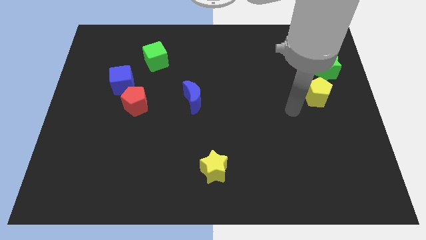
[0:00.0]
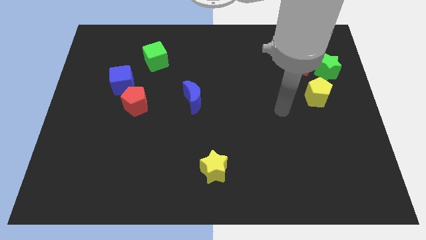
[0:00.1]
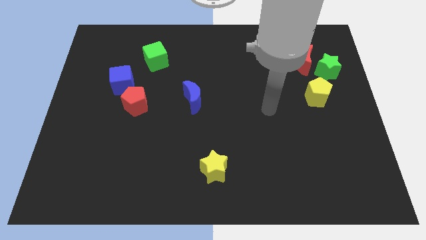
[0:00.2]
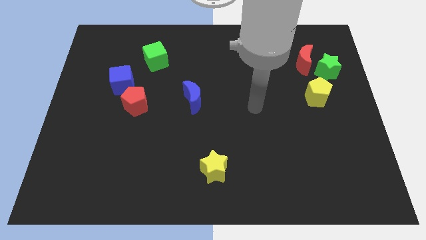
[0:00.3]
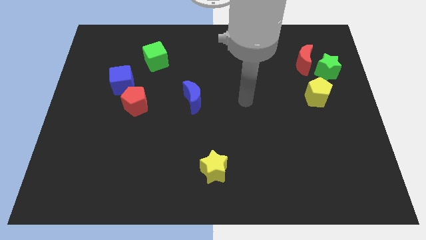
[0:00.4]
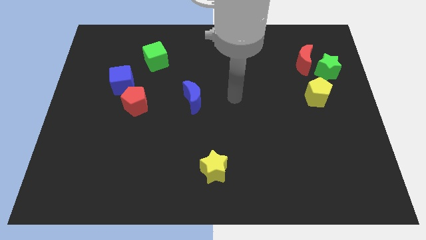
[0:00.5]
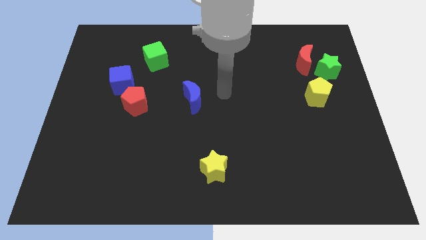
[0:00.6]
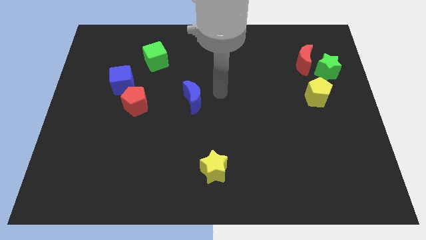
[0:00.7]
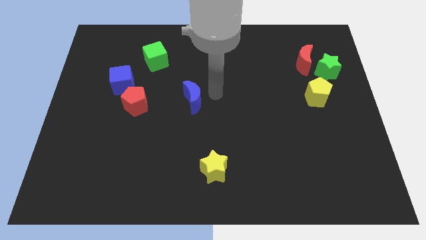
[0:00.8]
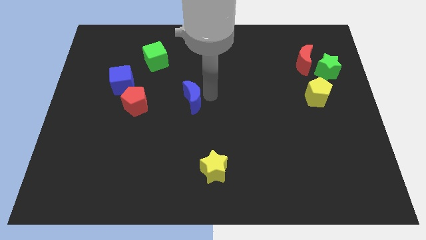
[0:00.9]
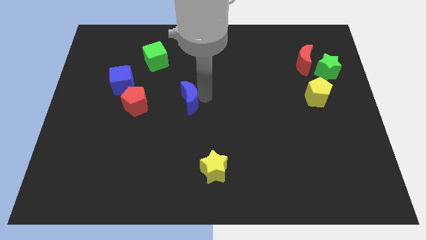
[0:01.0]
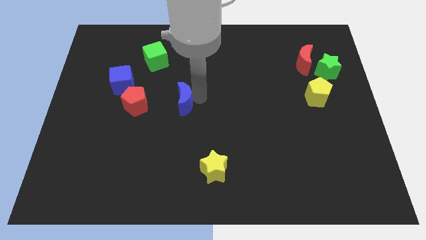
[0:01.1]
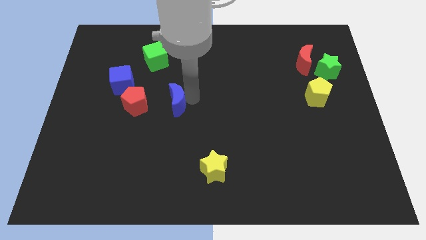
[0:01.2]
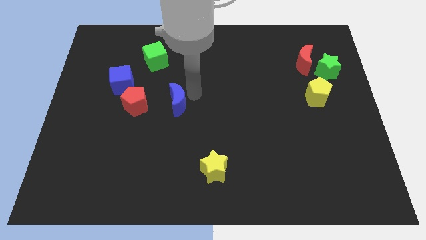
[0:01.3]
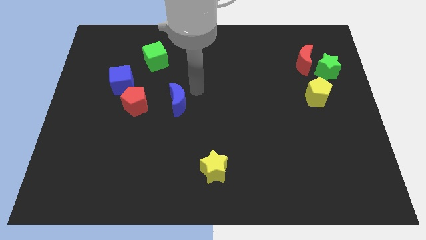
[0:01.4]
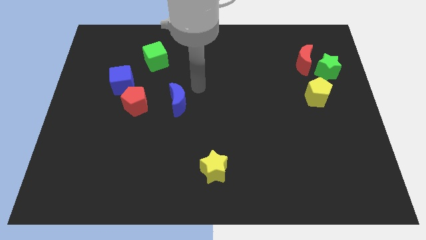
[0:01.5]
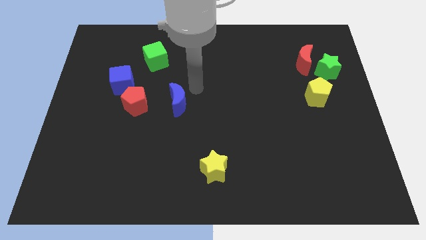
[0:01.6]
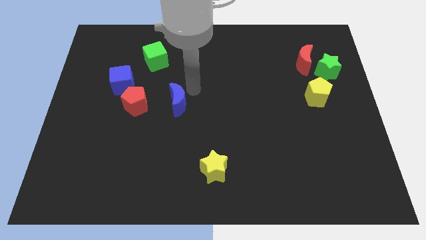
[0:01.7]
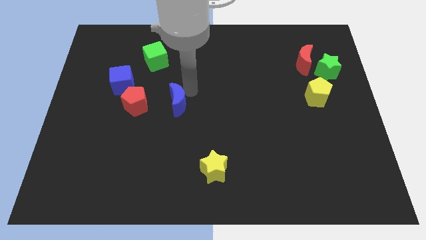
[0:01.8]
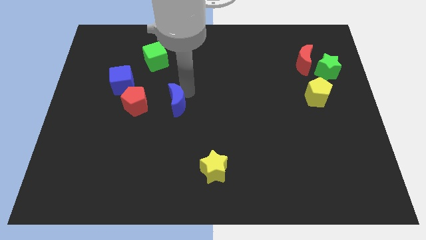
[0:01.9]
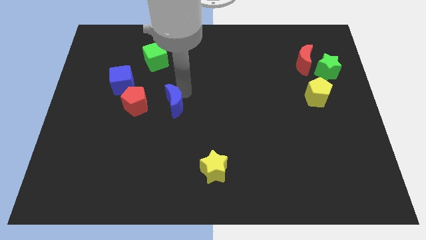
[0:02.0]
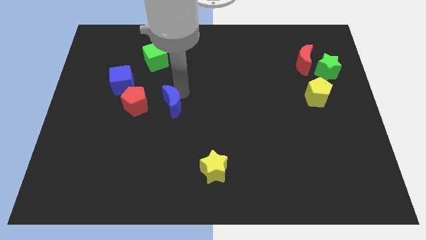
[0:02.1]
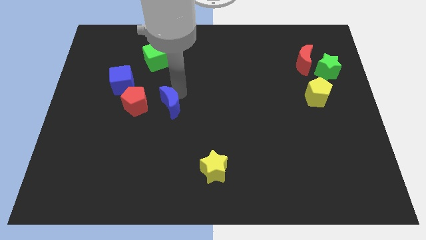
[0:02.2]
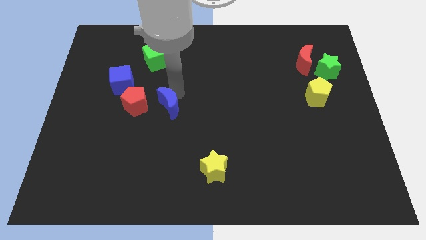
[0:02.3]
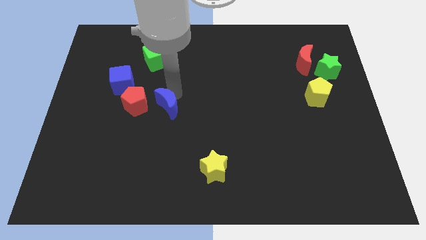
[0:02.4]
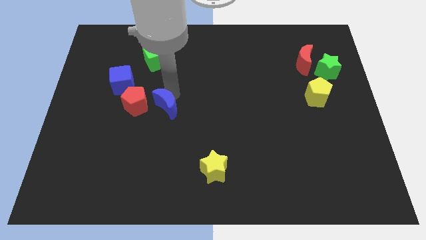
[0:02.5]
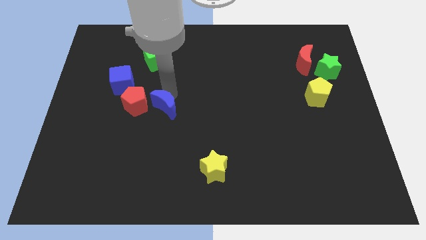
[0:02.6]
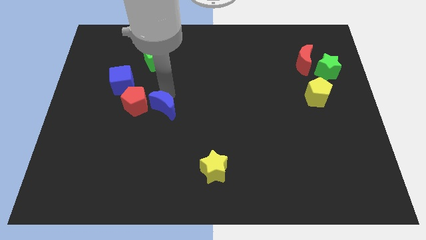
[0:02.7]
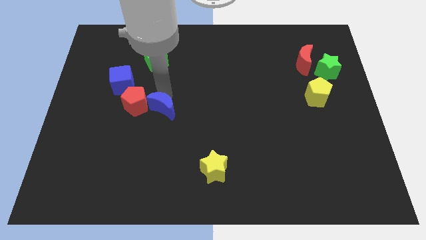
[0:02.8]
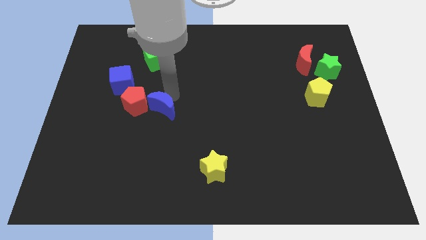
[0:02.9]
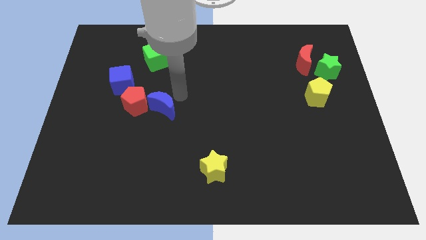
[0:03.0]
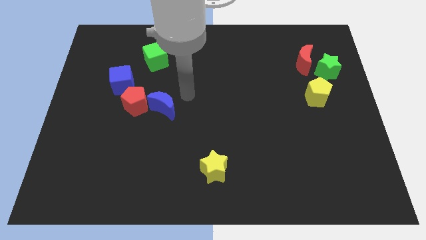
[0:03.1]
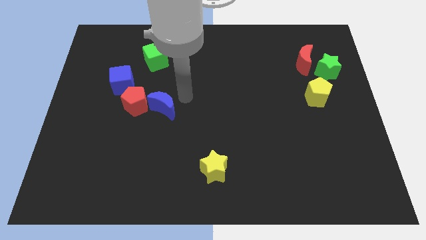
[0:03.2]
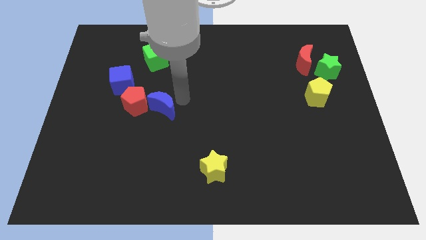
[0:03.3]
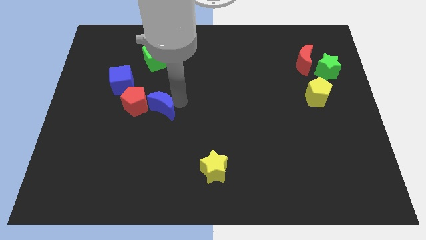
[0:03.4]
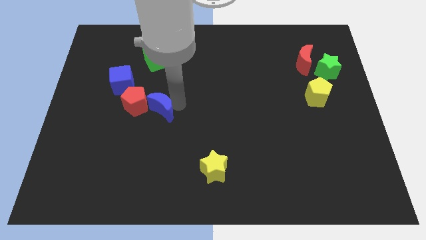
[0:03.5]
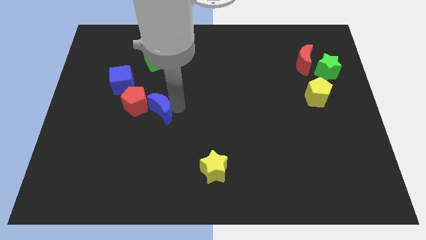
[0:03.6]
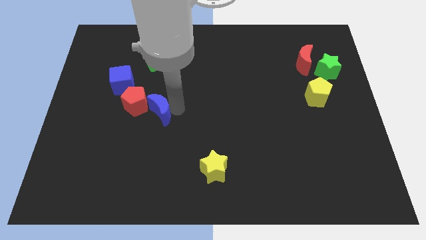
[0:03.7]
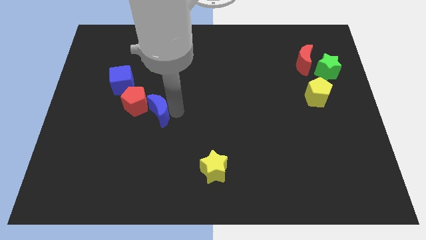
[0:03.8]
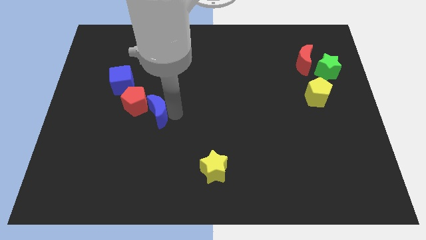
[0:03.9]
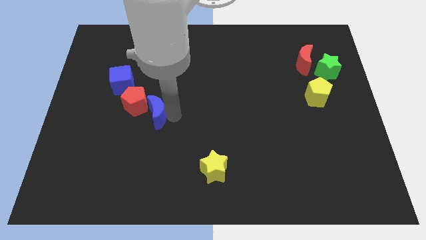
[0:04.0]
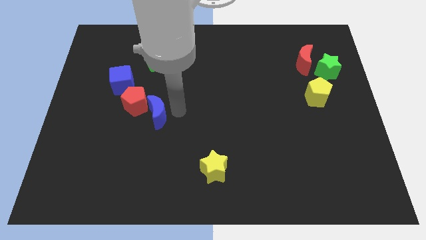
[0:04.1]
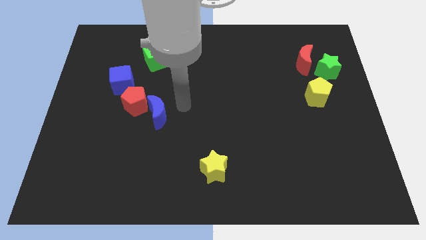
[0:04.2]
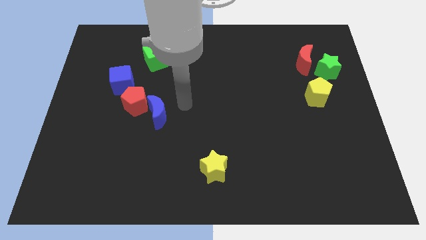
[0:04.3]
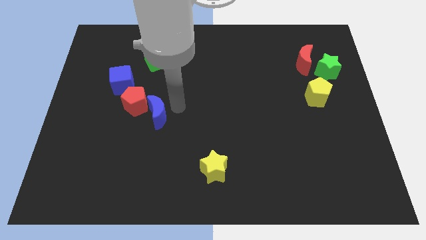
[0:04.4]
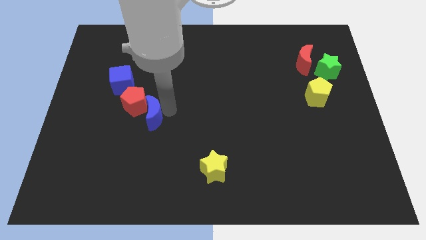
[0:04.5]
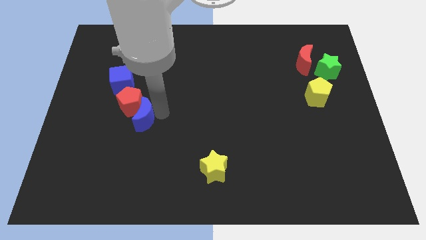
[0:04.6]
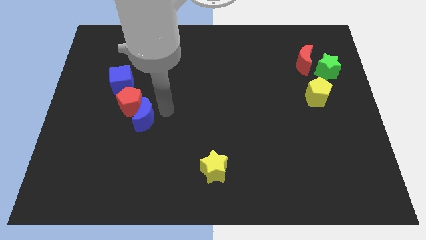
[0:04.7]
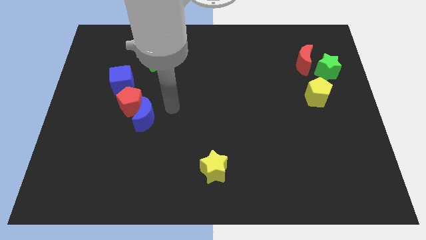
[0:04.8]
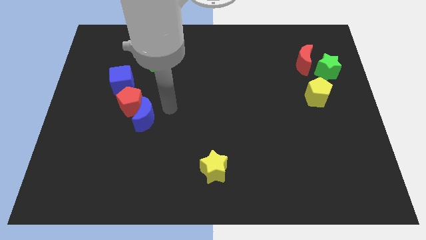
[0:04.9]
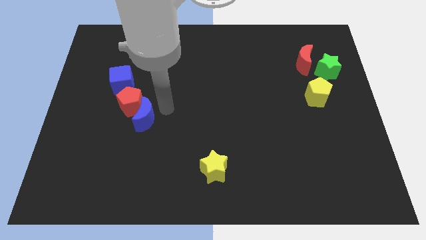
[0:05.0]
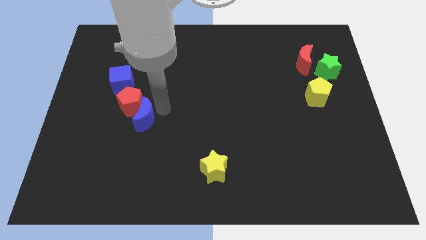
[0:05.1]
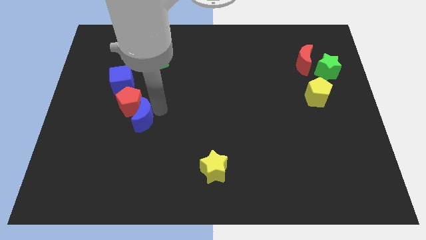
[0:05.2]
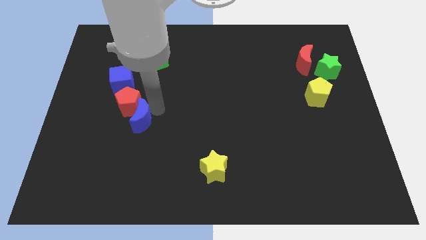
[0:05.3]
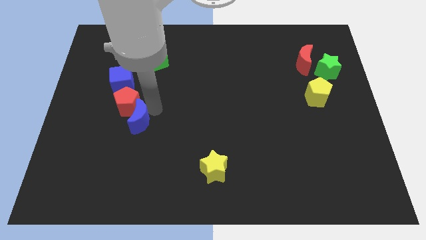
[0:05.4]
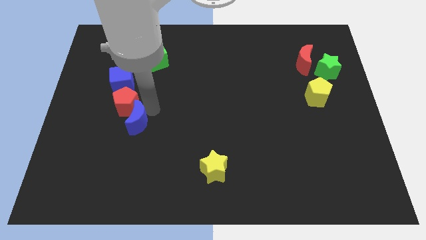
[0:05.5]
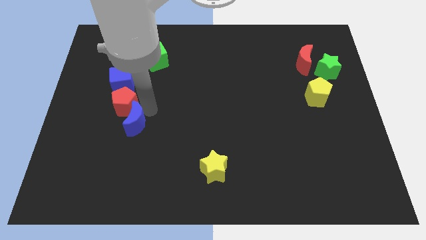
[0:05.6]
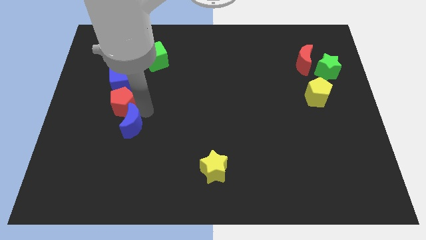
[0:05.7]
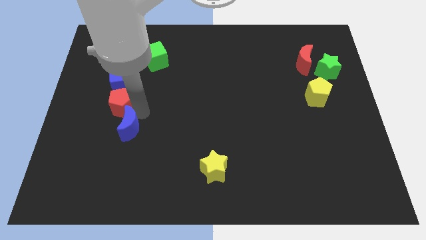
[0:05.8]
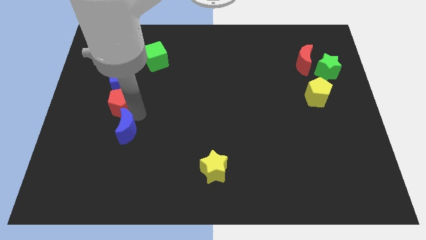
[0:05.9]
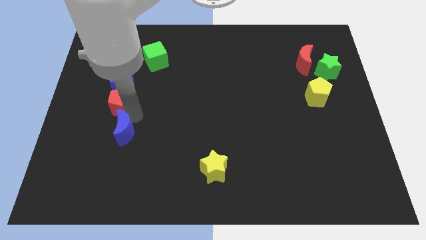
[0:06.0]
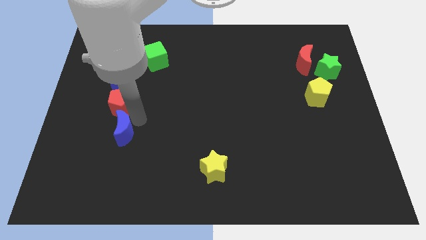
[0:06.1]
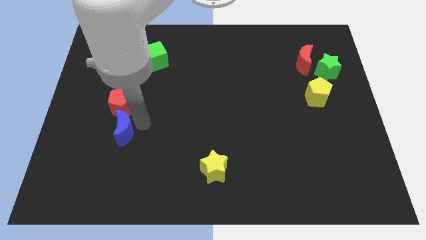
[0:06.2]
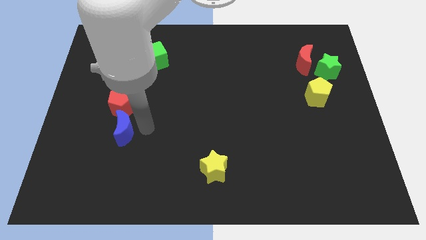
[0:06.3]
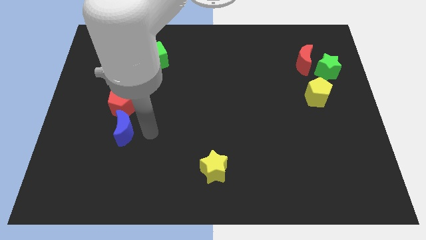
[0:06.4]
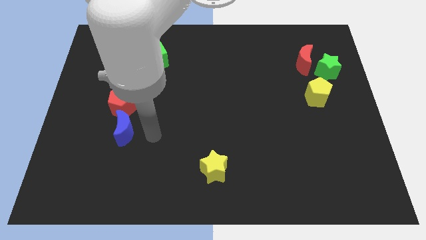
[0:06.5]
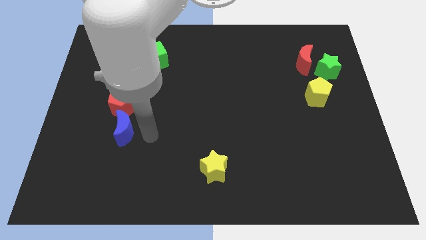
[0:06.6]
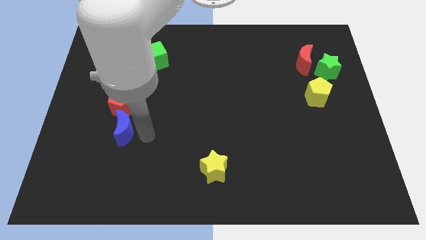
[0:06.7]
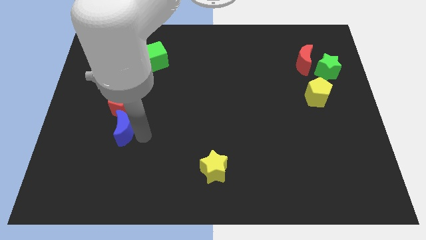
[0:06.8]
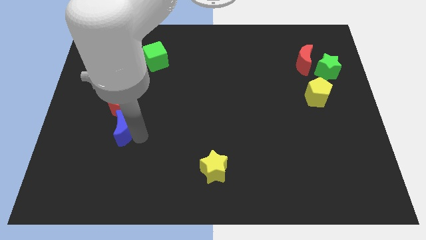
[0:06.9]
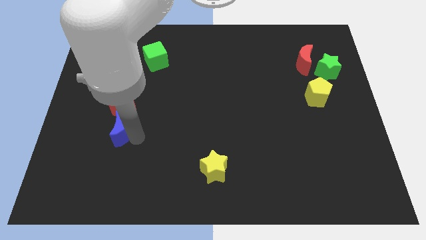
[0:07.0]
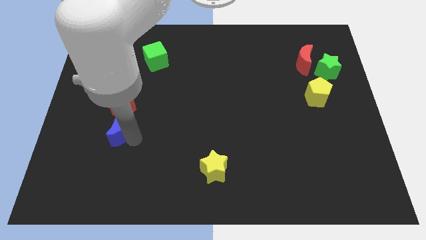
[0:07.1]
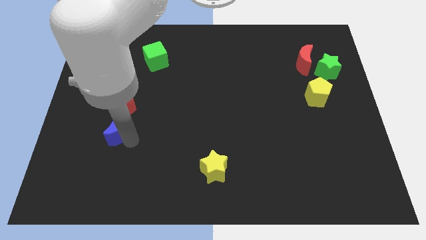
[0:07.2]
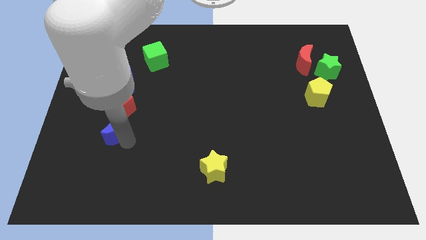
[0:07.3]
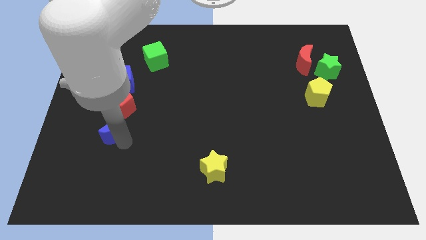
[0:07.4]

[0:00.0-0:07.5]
put the blue moon to the bottom left of the red pentagon
